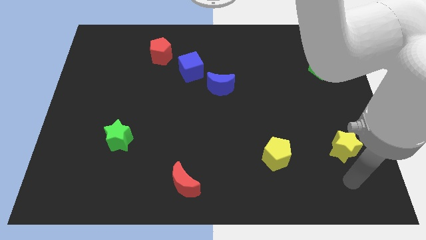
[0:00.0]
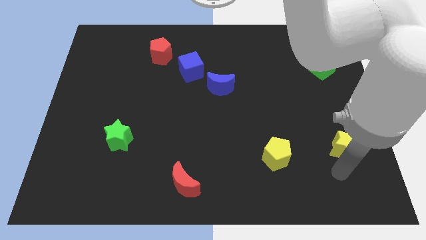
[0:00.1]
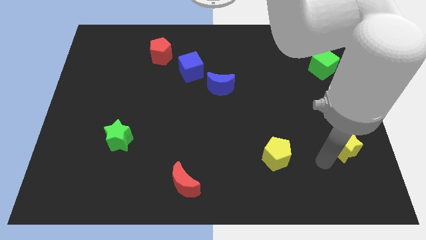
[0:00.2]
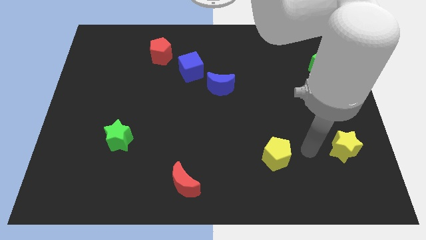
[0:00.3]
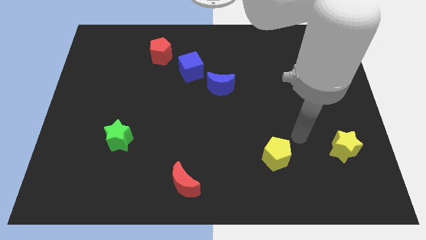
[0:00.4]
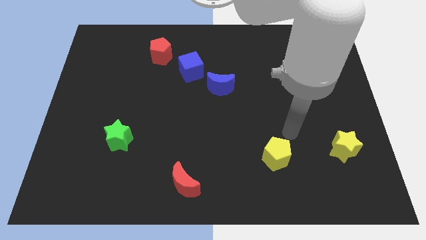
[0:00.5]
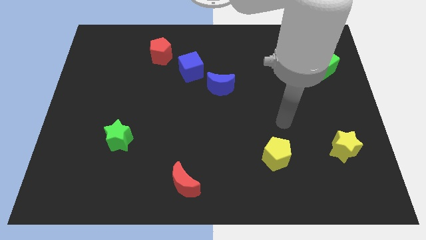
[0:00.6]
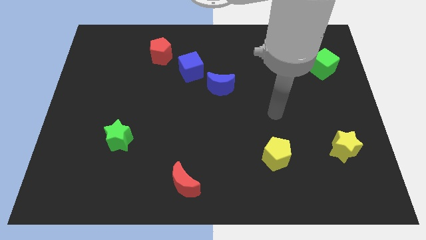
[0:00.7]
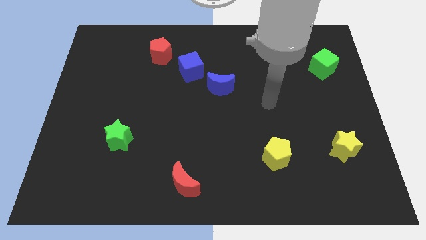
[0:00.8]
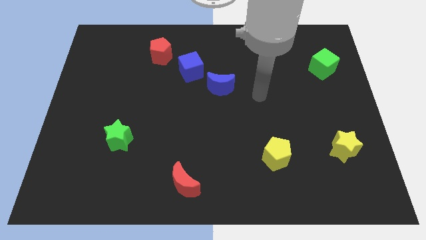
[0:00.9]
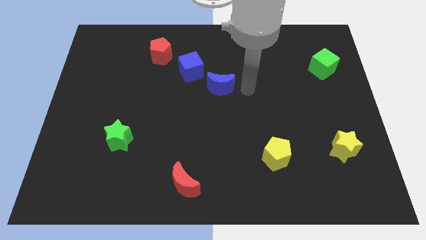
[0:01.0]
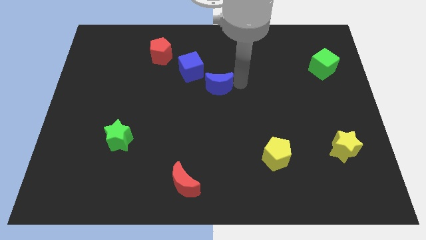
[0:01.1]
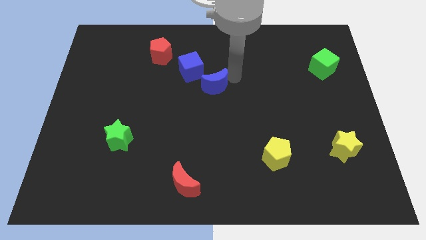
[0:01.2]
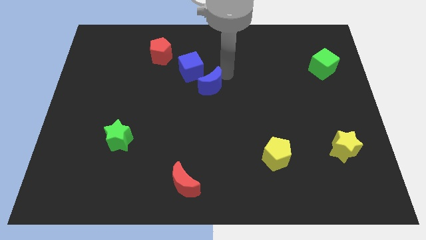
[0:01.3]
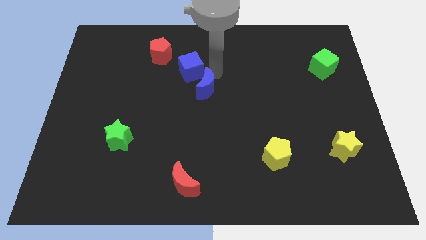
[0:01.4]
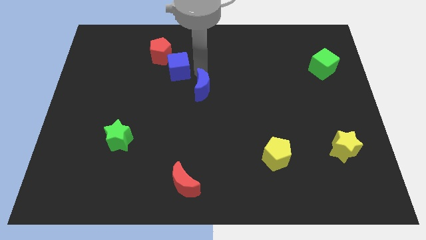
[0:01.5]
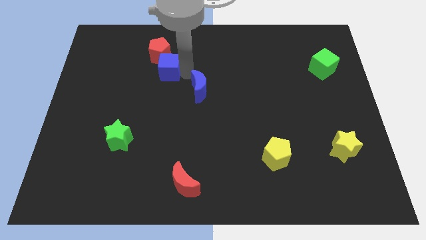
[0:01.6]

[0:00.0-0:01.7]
move the blue moon away from the blue cube

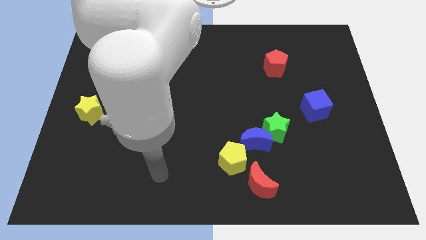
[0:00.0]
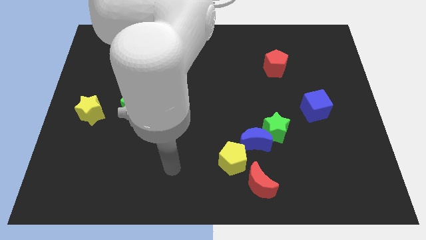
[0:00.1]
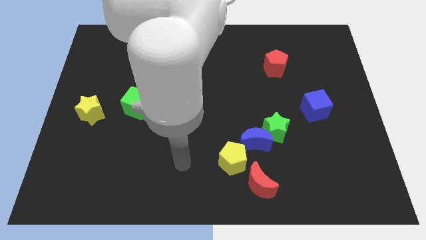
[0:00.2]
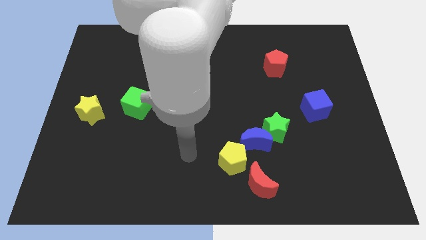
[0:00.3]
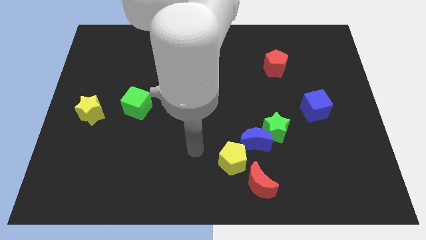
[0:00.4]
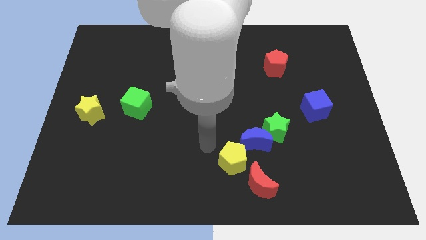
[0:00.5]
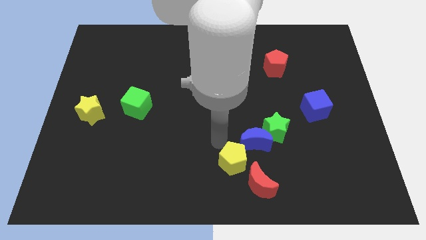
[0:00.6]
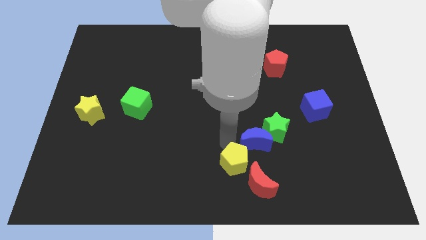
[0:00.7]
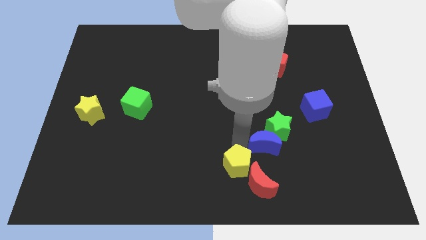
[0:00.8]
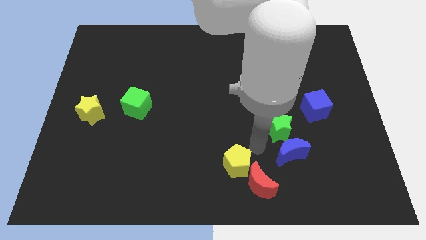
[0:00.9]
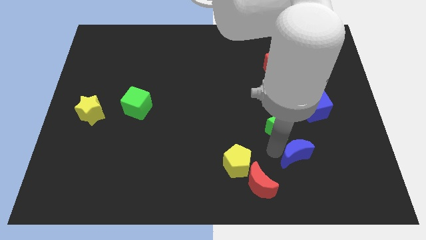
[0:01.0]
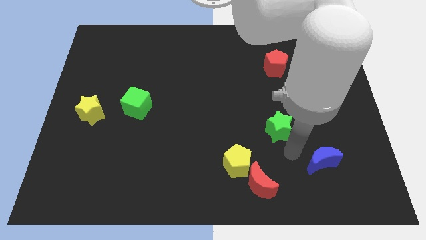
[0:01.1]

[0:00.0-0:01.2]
pull the green star apart from the blue moon

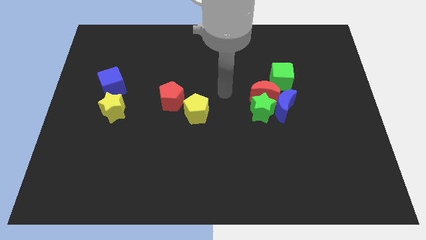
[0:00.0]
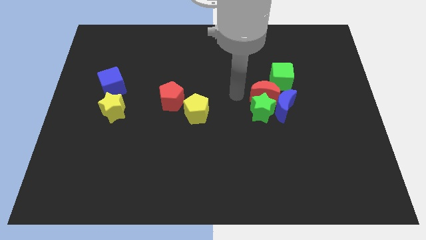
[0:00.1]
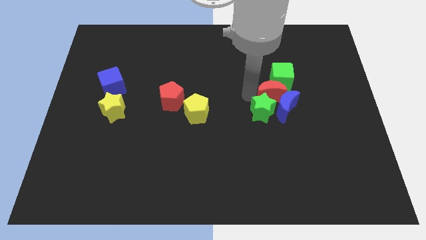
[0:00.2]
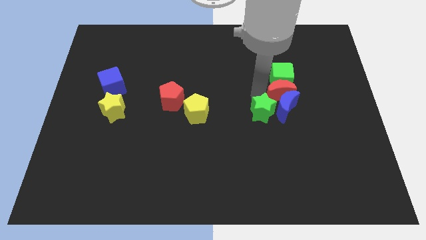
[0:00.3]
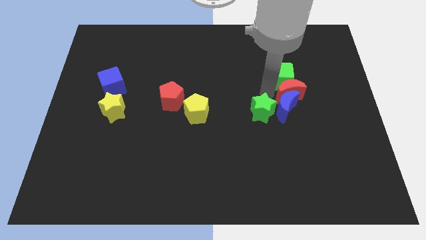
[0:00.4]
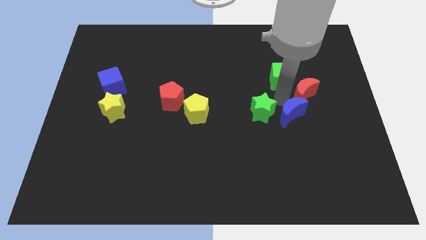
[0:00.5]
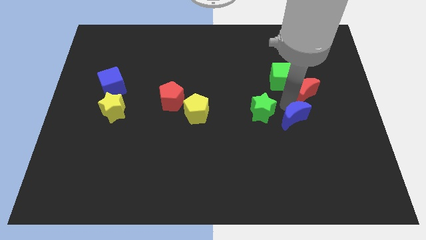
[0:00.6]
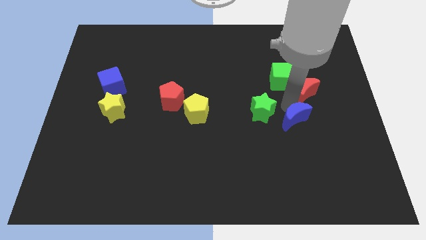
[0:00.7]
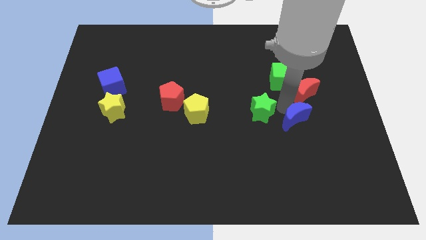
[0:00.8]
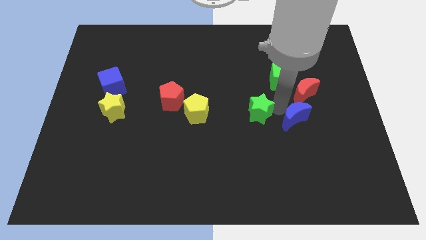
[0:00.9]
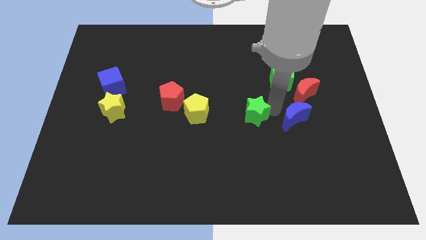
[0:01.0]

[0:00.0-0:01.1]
move the green star away from the red moon and blue moon

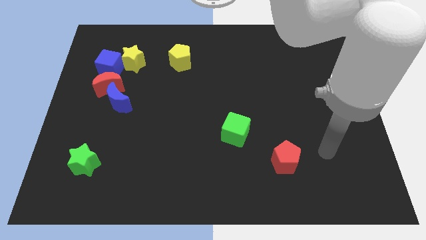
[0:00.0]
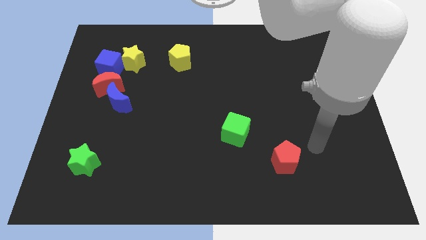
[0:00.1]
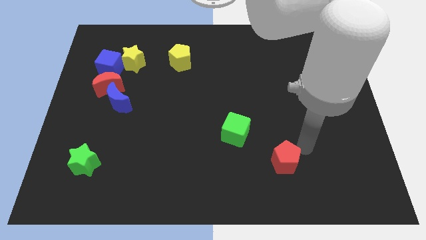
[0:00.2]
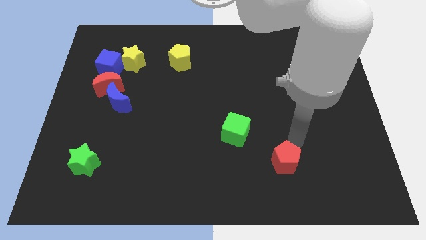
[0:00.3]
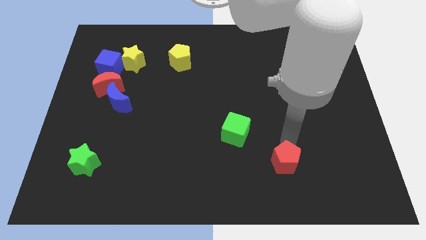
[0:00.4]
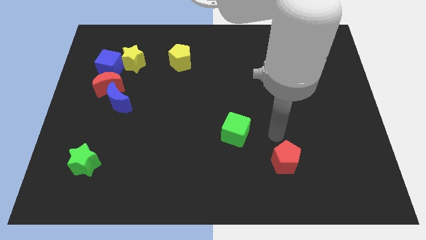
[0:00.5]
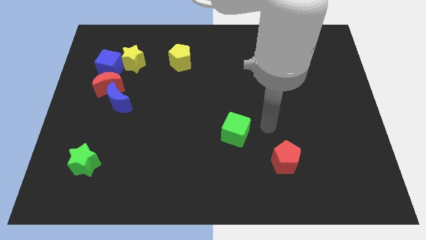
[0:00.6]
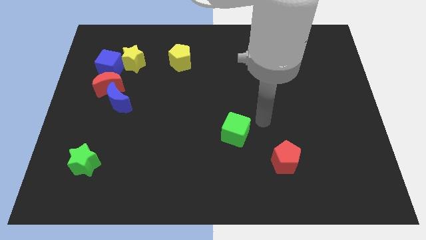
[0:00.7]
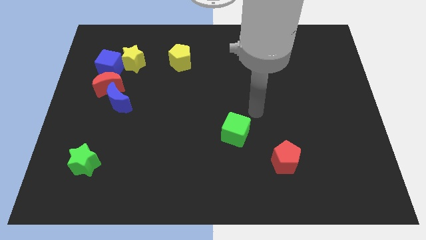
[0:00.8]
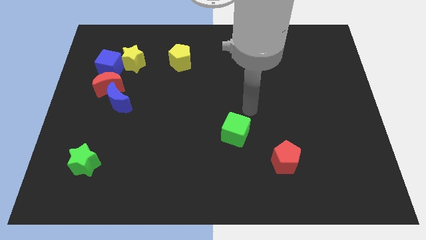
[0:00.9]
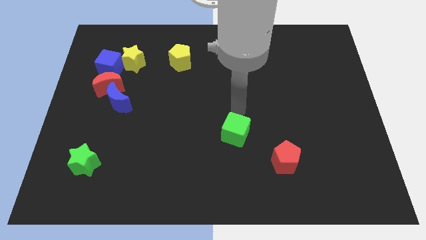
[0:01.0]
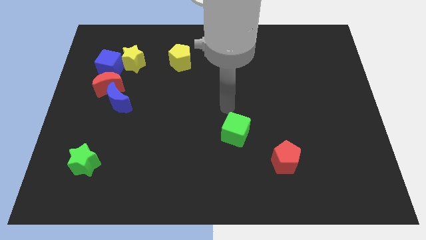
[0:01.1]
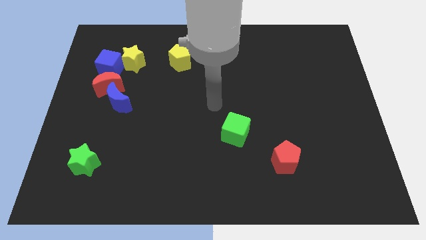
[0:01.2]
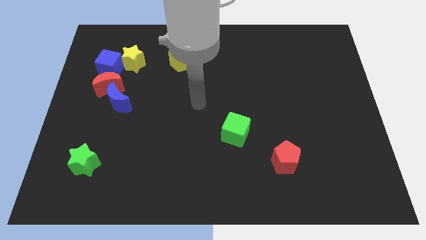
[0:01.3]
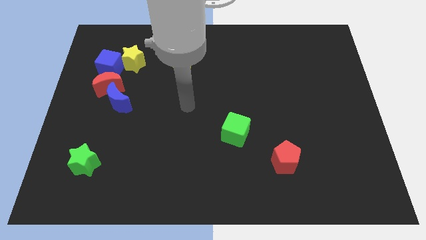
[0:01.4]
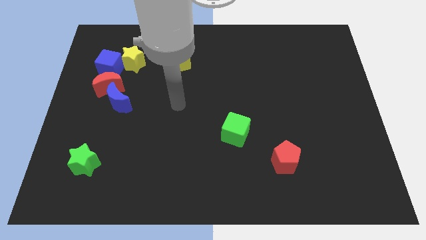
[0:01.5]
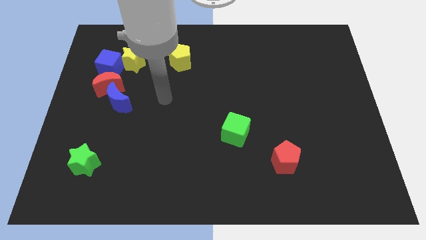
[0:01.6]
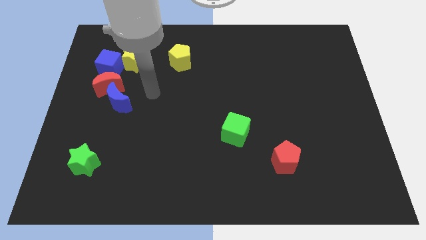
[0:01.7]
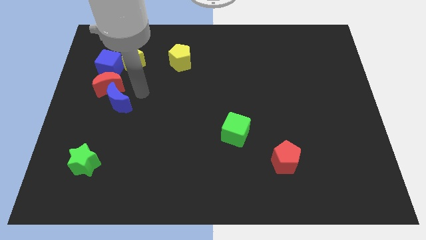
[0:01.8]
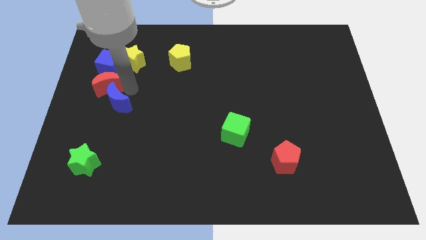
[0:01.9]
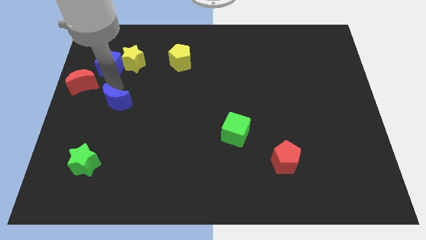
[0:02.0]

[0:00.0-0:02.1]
separate the blue moon from the red moon

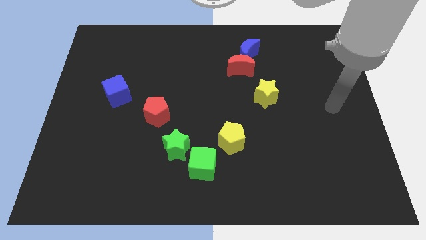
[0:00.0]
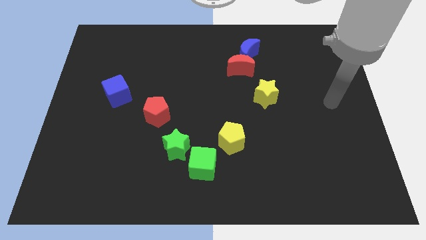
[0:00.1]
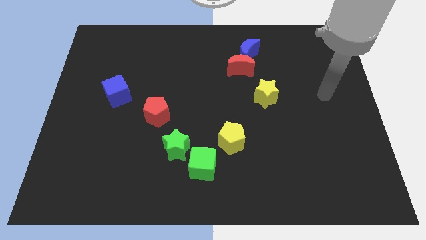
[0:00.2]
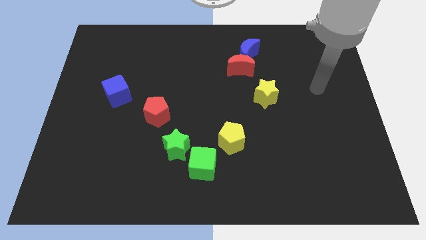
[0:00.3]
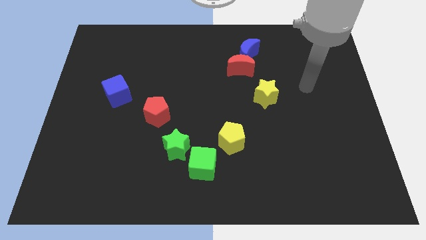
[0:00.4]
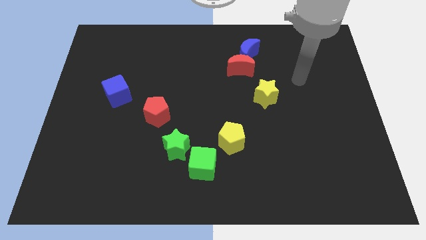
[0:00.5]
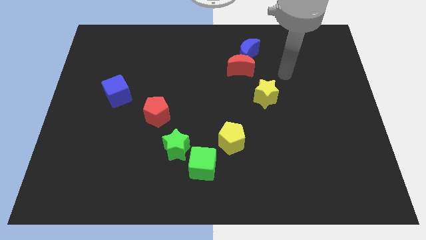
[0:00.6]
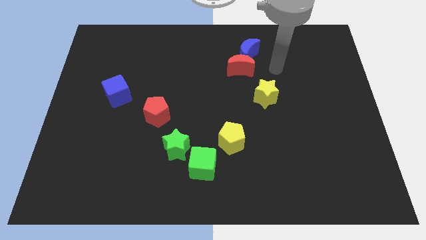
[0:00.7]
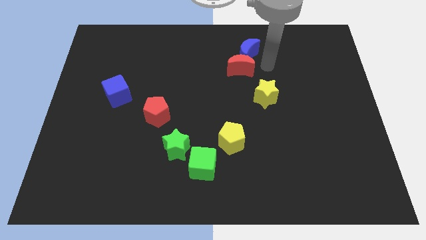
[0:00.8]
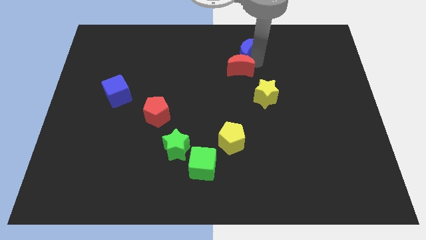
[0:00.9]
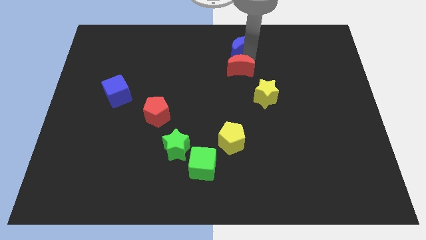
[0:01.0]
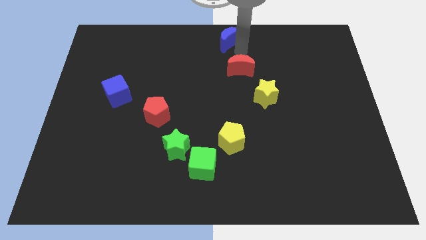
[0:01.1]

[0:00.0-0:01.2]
move the red moon away from the blue moon

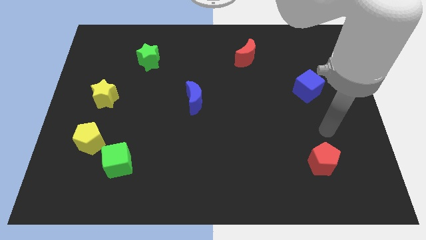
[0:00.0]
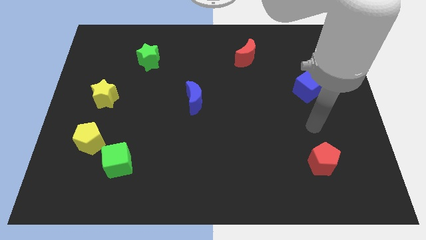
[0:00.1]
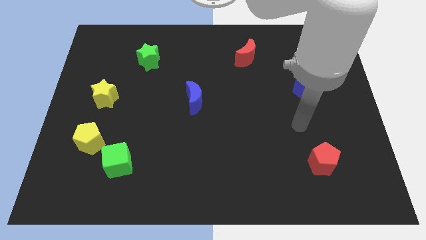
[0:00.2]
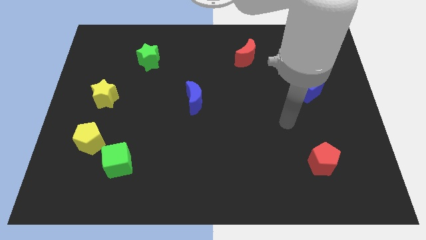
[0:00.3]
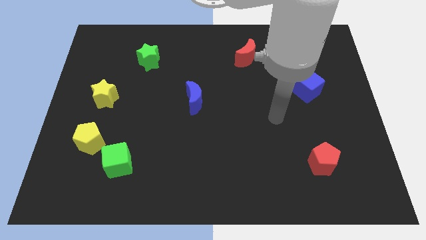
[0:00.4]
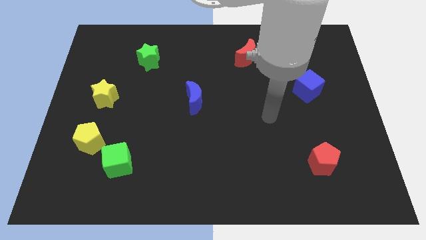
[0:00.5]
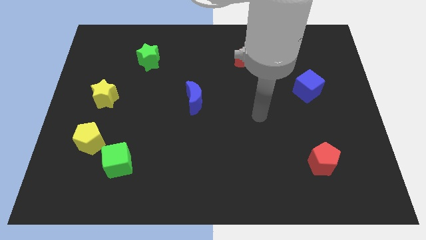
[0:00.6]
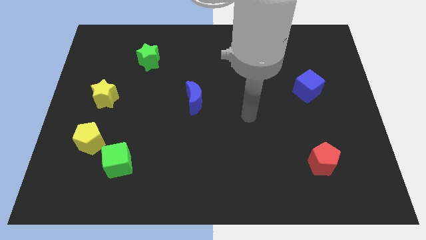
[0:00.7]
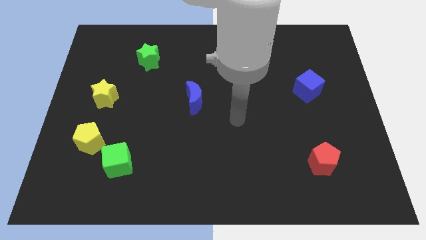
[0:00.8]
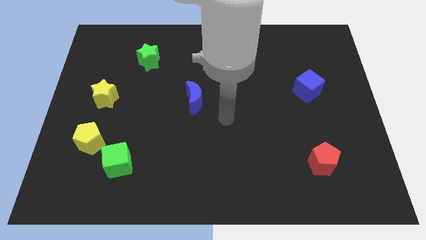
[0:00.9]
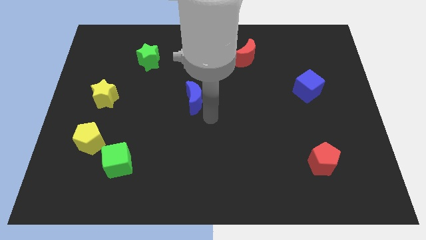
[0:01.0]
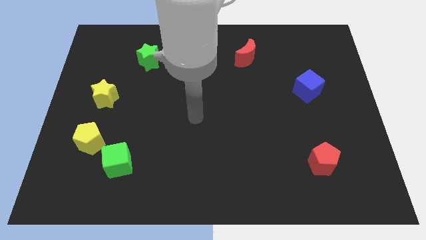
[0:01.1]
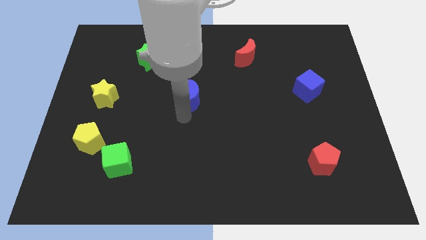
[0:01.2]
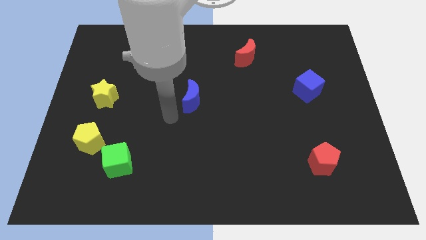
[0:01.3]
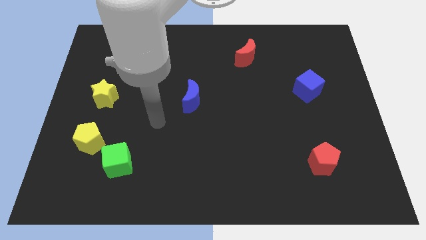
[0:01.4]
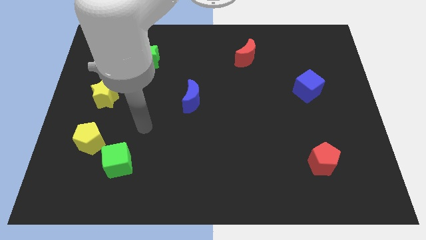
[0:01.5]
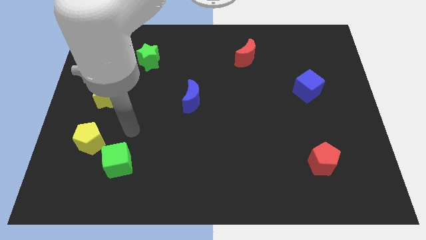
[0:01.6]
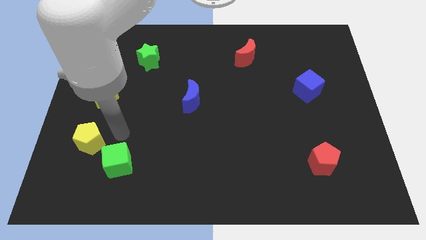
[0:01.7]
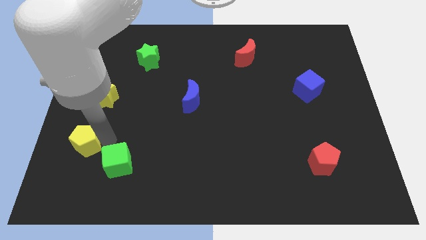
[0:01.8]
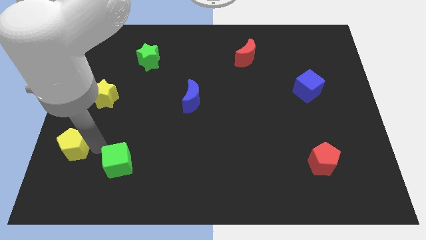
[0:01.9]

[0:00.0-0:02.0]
pull the green cube apart from the yellow pentagon
